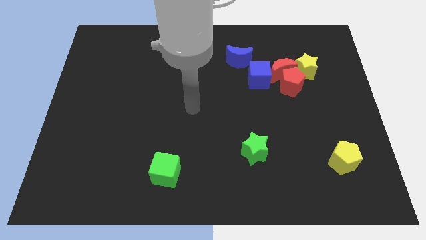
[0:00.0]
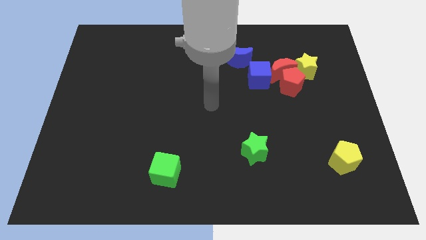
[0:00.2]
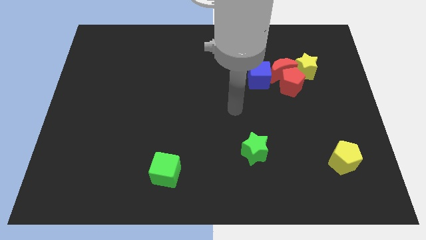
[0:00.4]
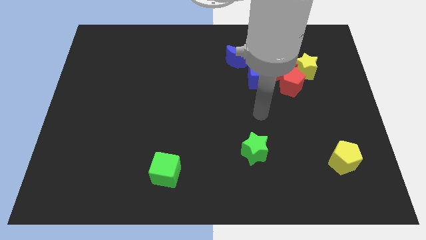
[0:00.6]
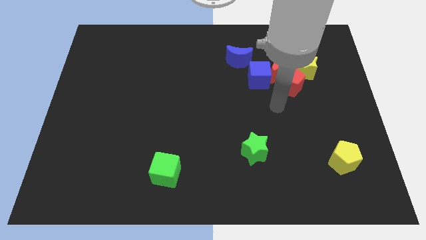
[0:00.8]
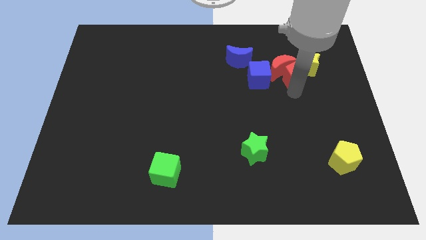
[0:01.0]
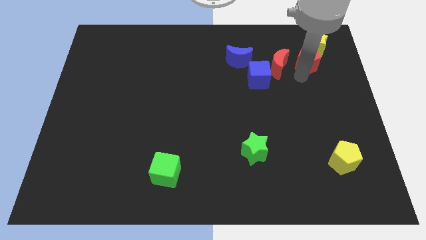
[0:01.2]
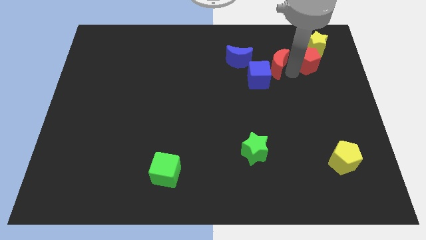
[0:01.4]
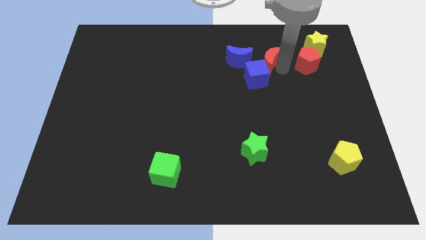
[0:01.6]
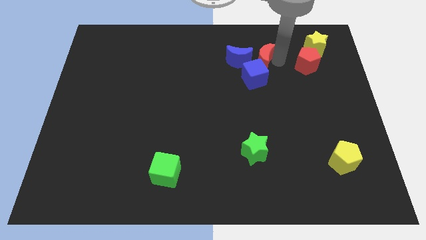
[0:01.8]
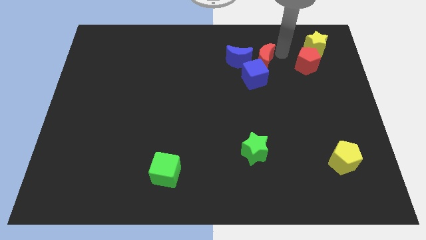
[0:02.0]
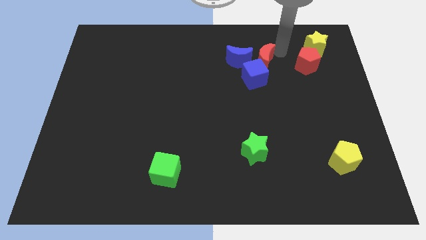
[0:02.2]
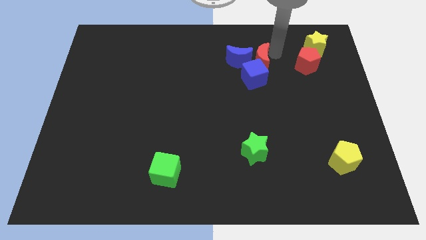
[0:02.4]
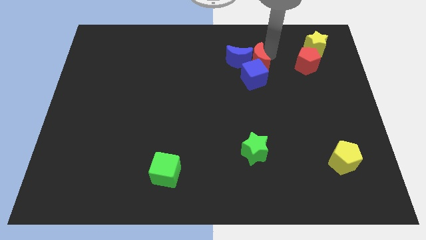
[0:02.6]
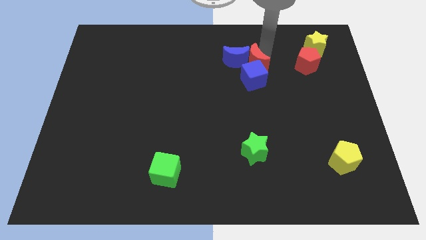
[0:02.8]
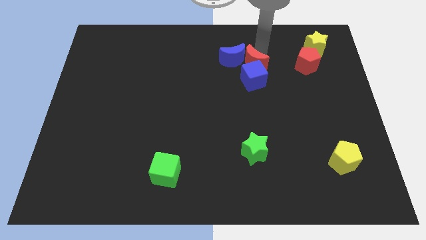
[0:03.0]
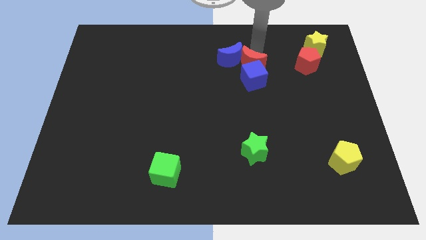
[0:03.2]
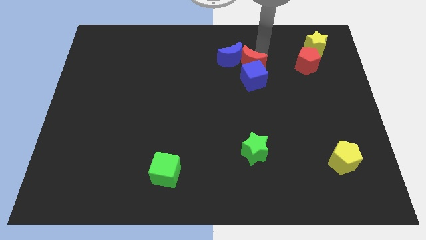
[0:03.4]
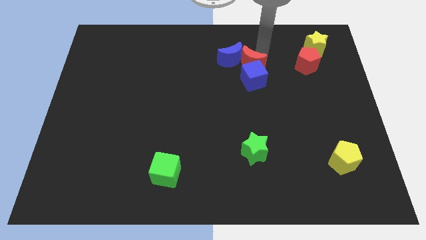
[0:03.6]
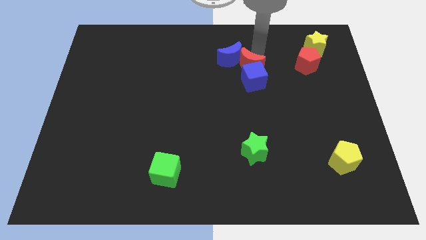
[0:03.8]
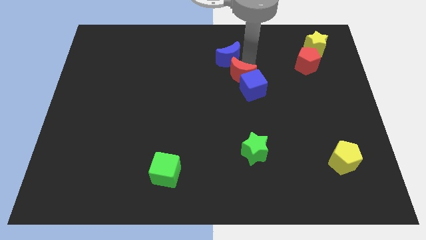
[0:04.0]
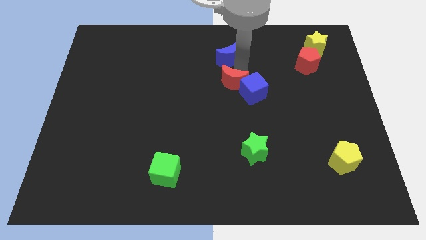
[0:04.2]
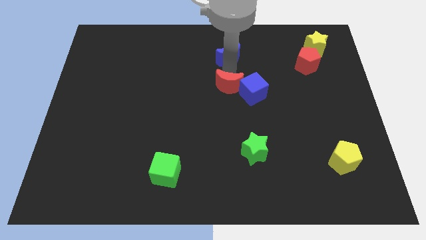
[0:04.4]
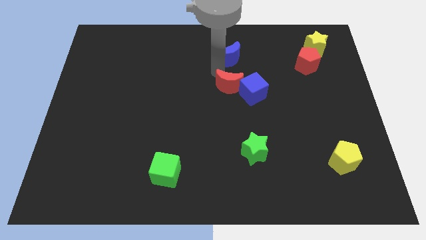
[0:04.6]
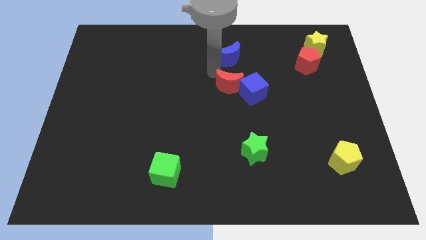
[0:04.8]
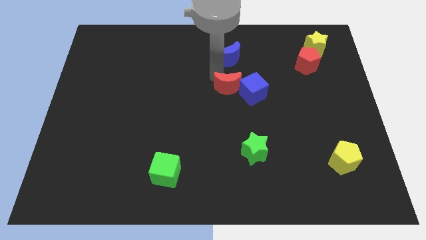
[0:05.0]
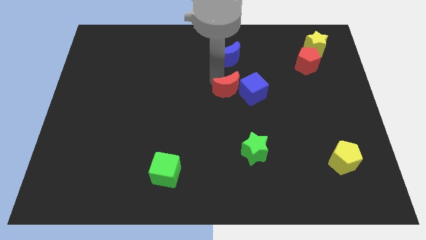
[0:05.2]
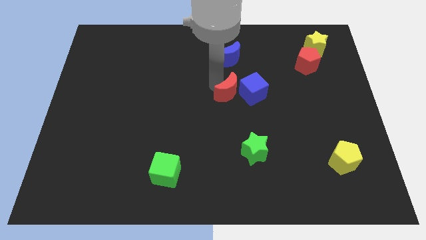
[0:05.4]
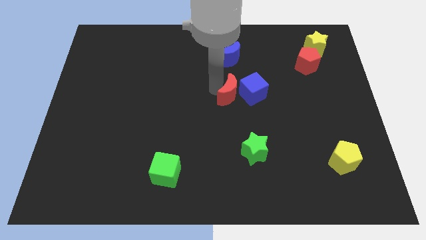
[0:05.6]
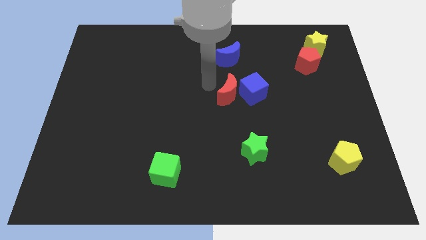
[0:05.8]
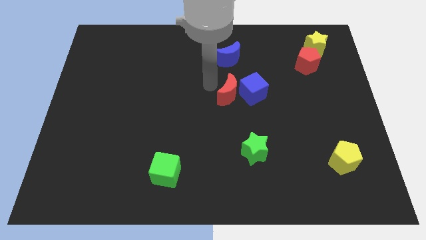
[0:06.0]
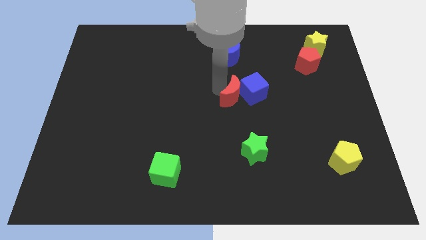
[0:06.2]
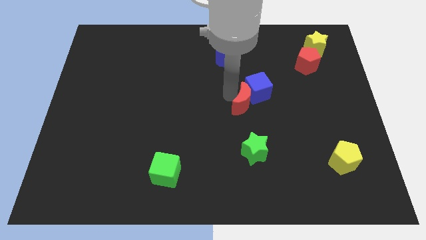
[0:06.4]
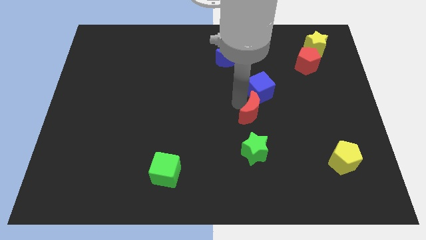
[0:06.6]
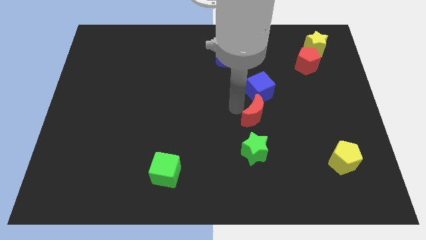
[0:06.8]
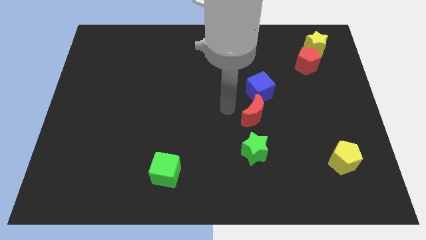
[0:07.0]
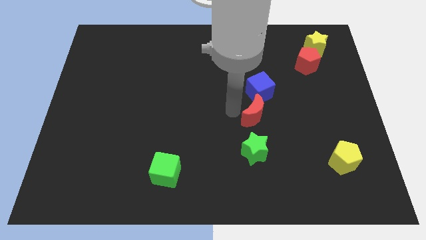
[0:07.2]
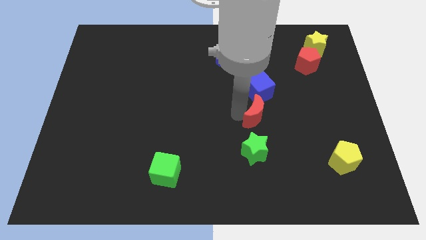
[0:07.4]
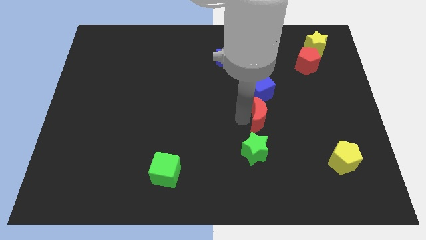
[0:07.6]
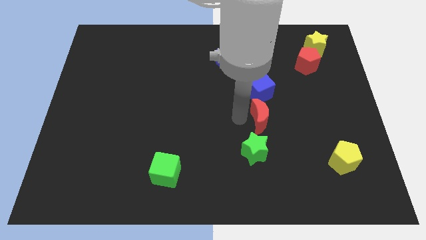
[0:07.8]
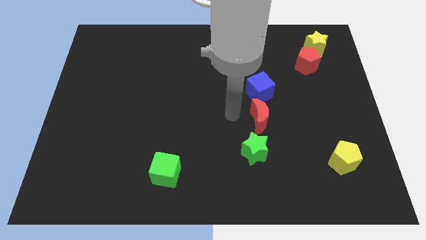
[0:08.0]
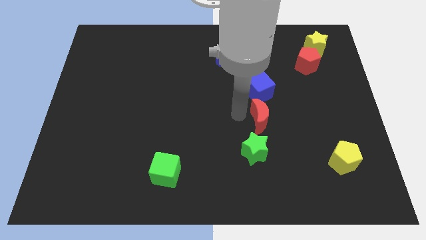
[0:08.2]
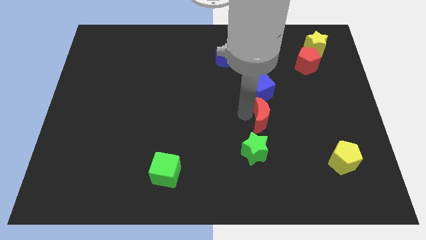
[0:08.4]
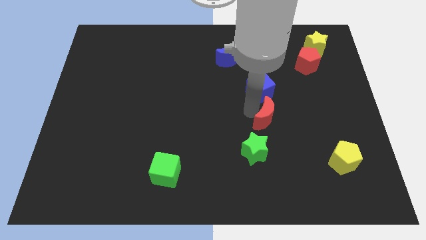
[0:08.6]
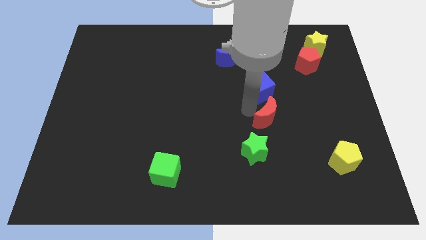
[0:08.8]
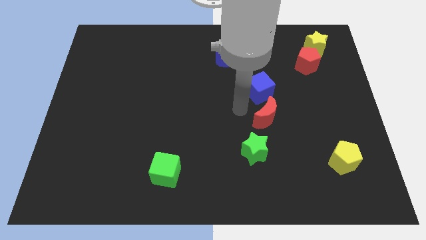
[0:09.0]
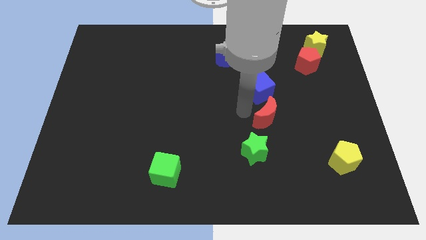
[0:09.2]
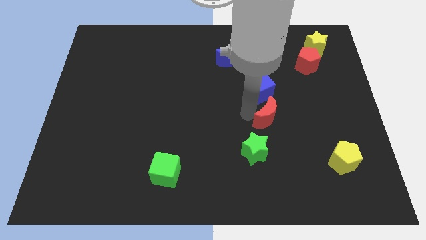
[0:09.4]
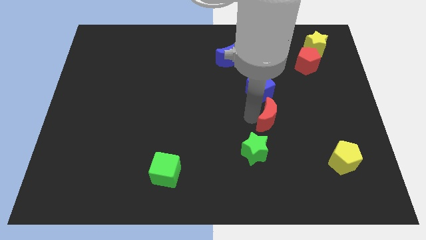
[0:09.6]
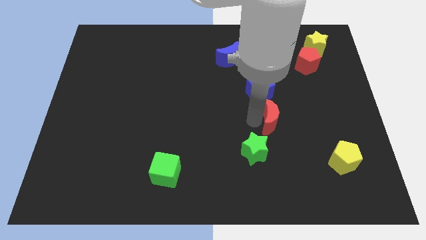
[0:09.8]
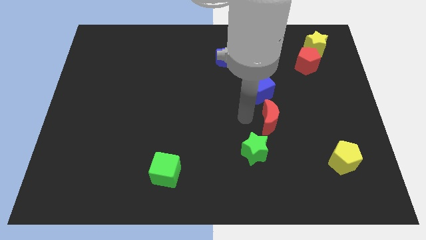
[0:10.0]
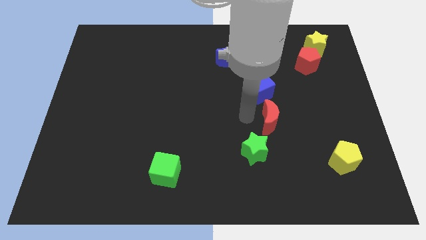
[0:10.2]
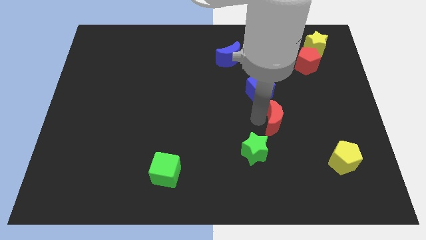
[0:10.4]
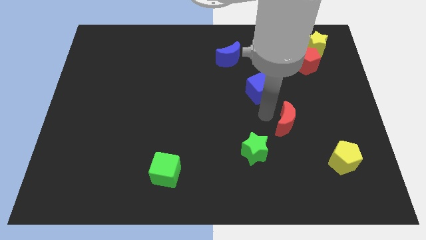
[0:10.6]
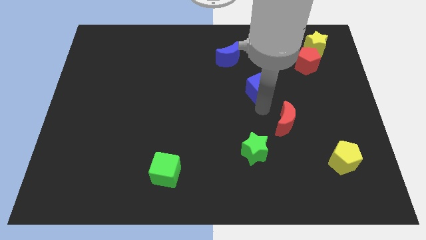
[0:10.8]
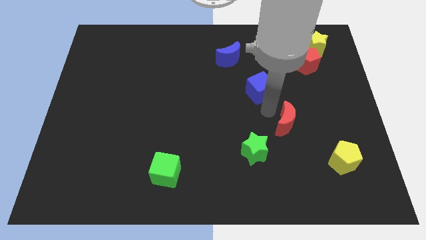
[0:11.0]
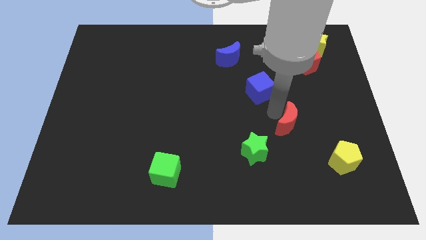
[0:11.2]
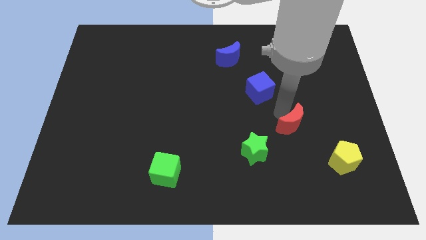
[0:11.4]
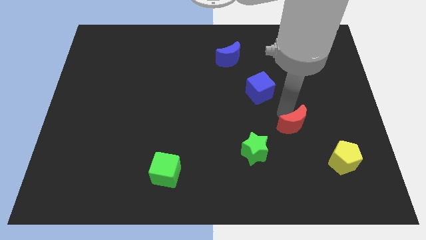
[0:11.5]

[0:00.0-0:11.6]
put the red moon to the top left of the yellow pentagon

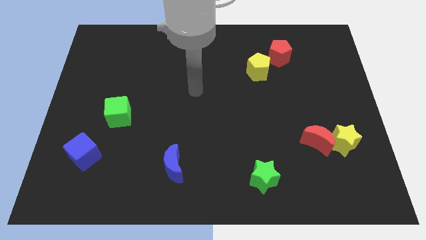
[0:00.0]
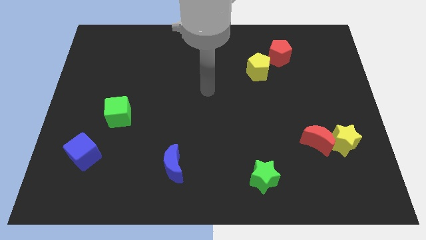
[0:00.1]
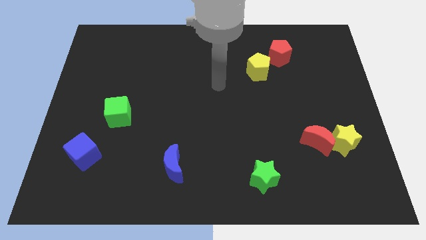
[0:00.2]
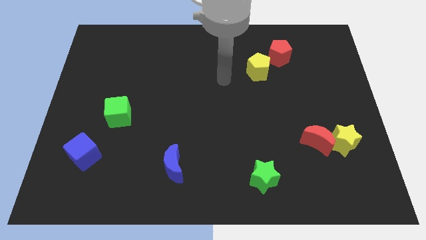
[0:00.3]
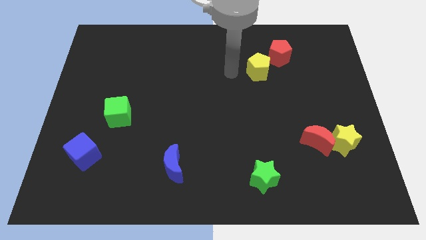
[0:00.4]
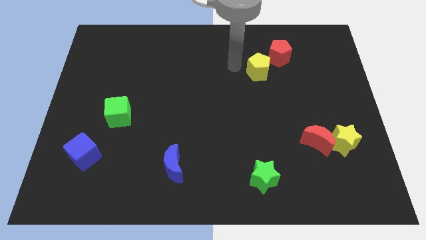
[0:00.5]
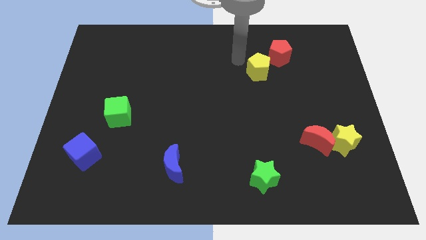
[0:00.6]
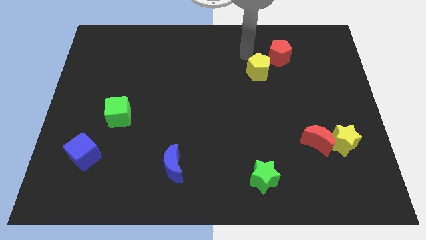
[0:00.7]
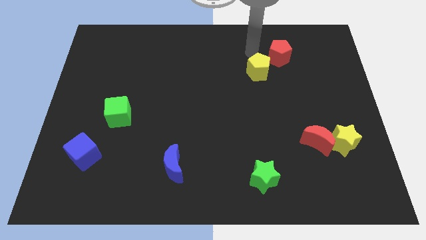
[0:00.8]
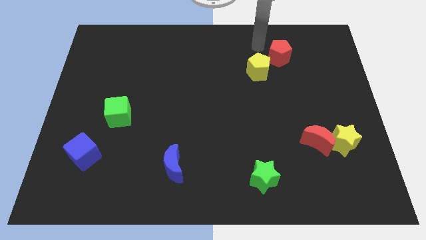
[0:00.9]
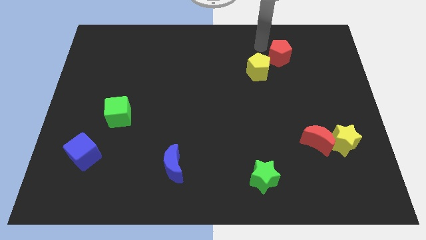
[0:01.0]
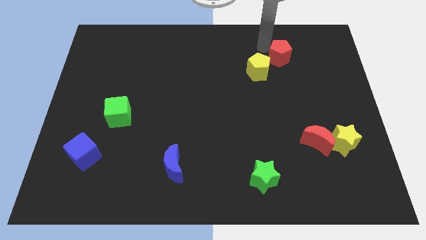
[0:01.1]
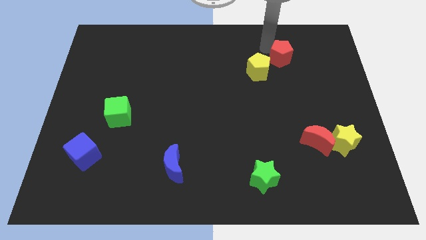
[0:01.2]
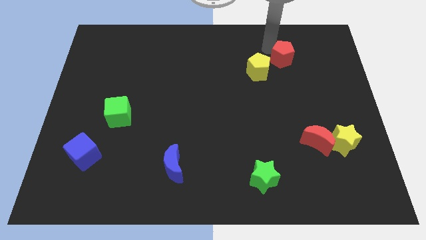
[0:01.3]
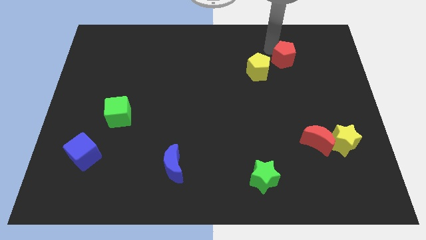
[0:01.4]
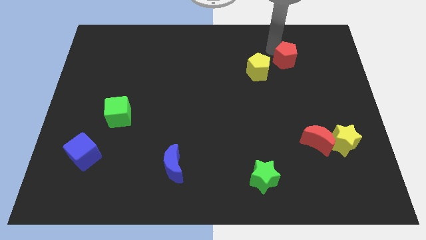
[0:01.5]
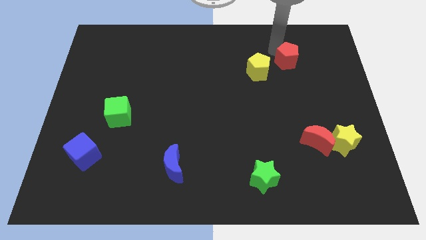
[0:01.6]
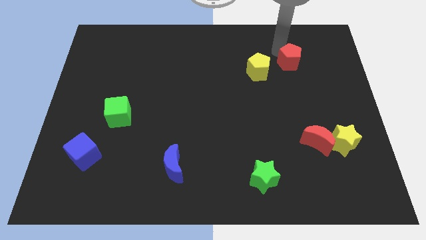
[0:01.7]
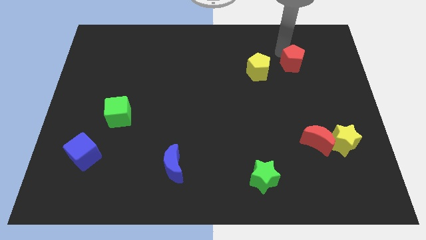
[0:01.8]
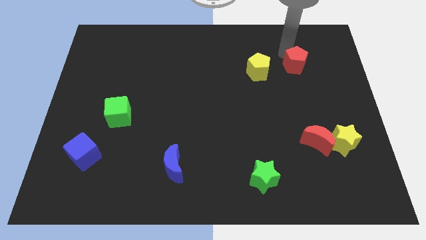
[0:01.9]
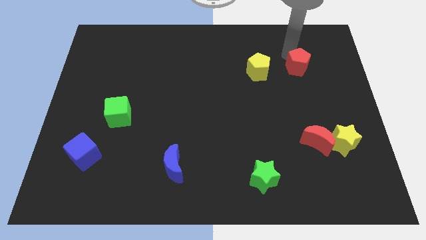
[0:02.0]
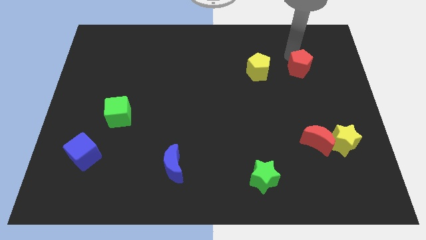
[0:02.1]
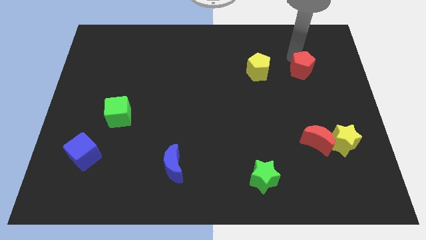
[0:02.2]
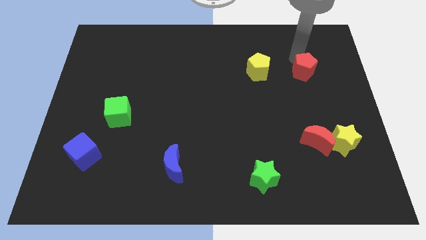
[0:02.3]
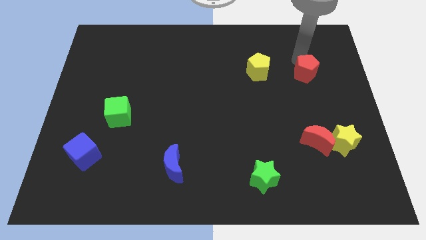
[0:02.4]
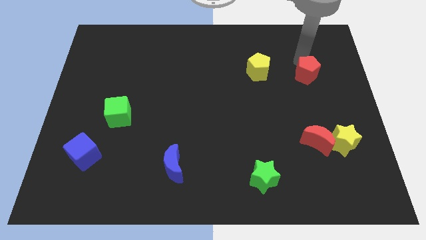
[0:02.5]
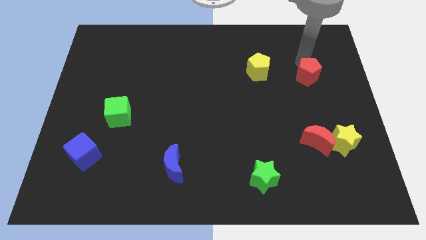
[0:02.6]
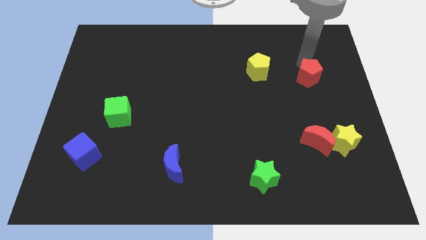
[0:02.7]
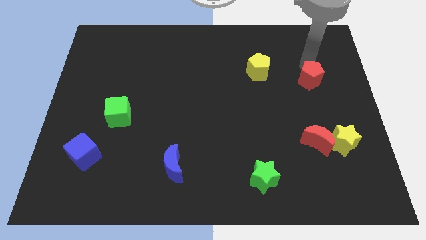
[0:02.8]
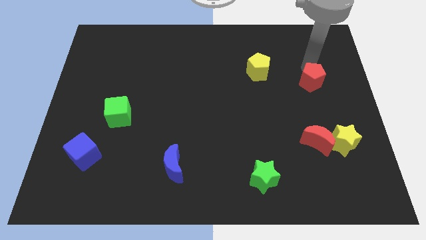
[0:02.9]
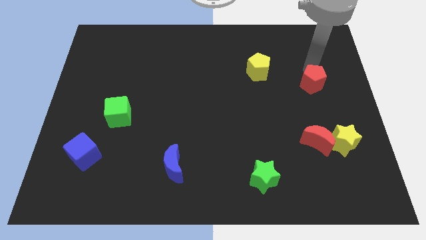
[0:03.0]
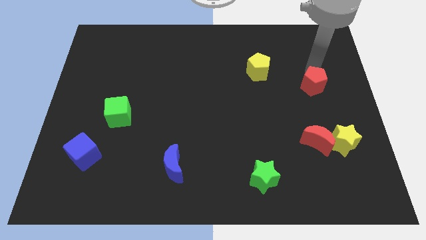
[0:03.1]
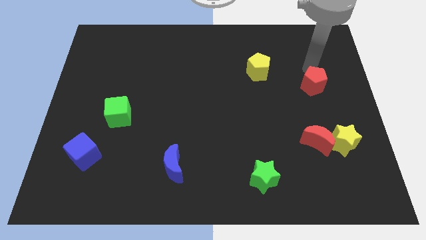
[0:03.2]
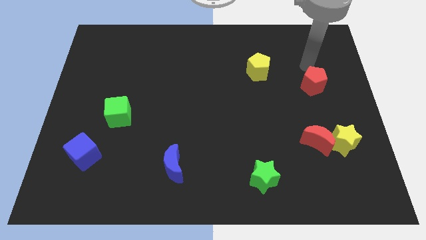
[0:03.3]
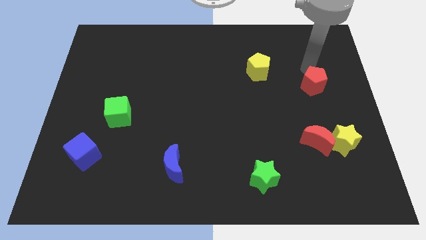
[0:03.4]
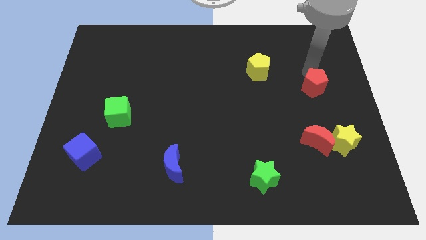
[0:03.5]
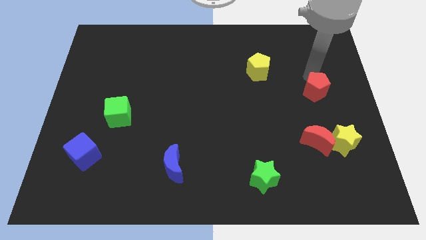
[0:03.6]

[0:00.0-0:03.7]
put the red pentagon to the top side of the yellow star
